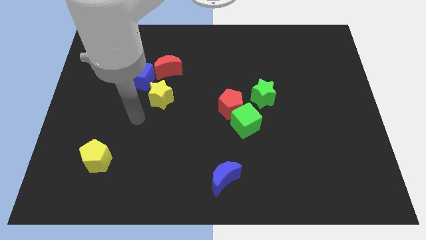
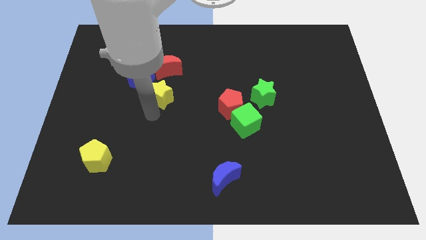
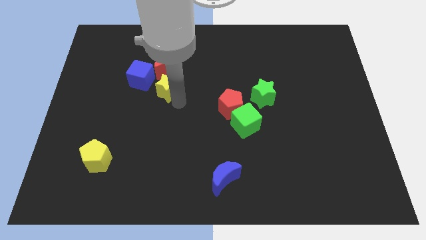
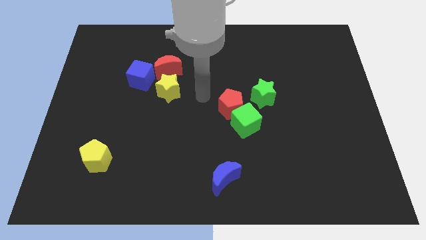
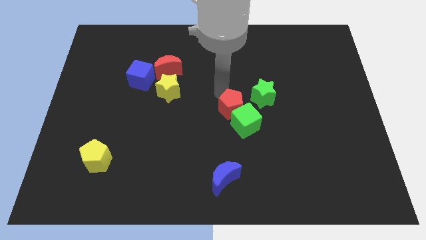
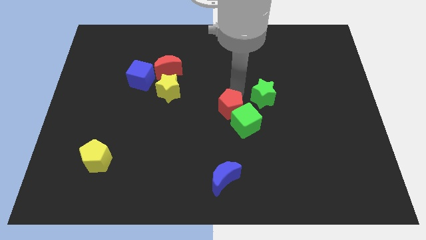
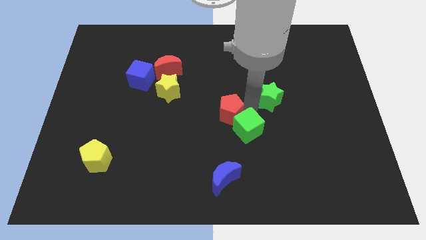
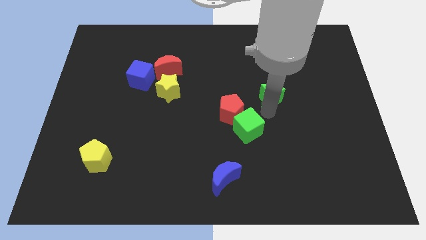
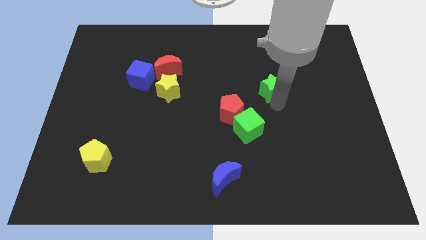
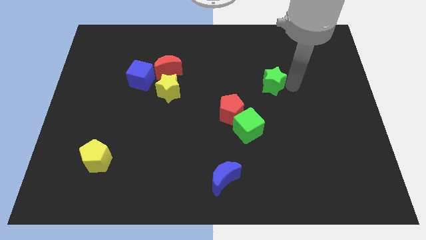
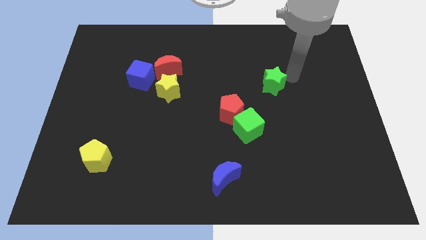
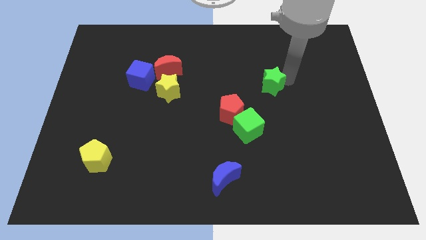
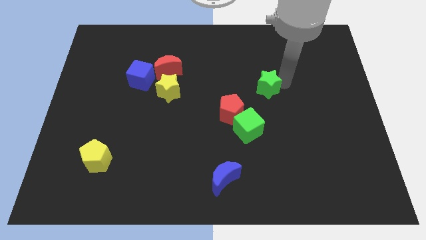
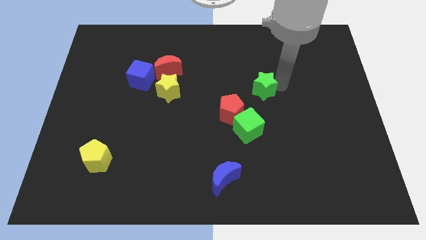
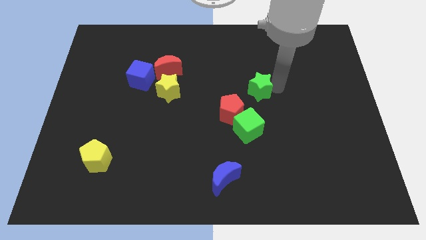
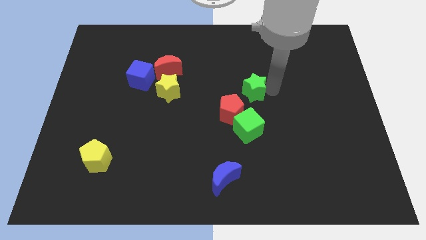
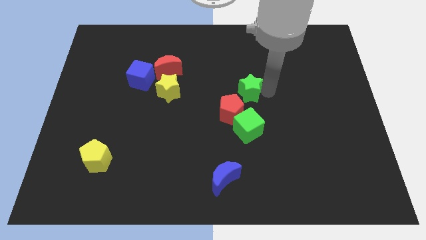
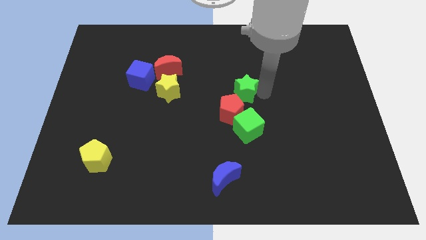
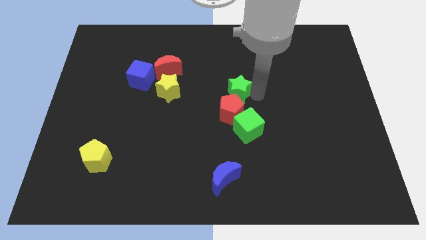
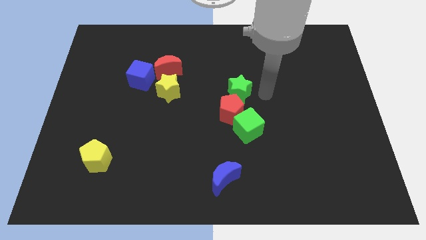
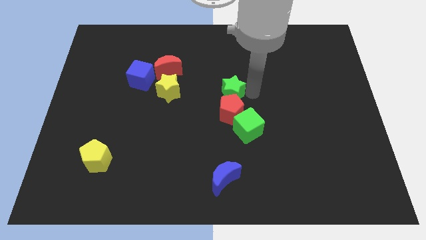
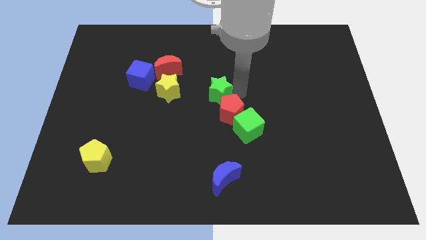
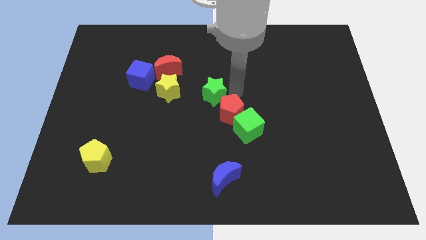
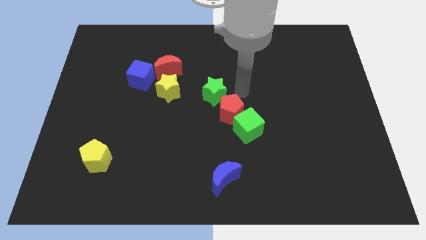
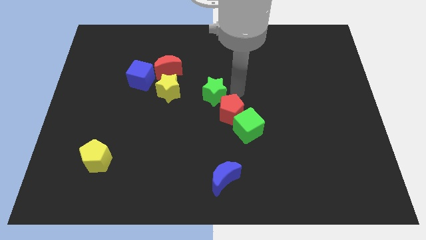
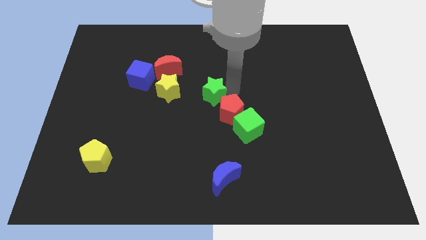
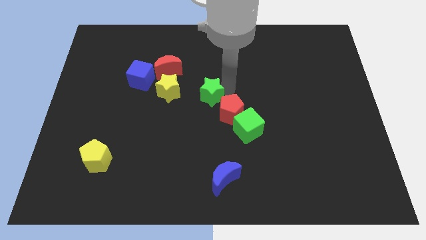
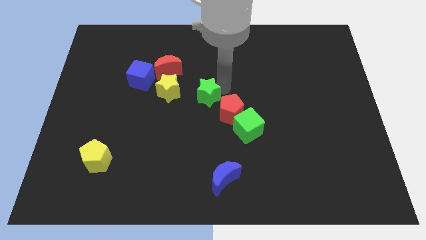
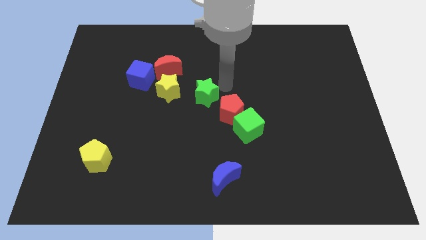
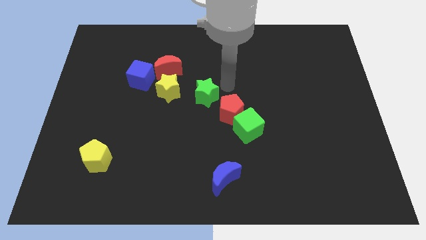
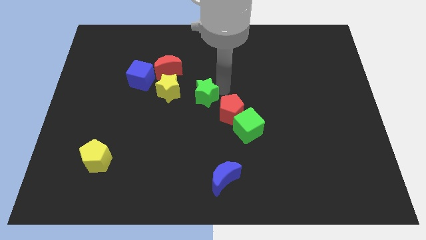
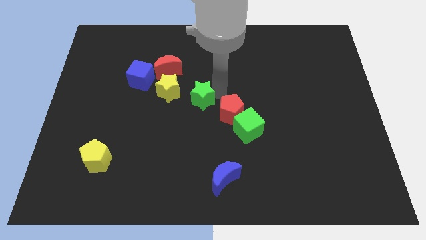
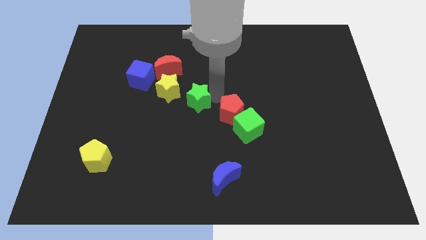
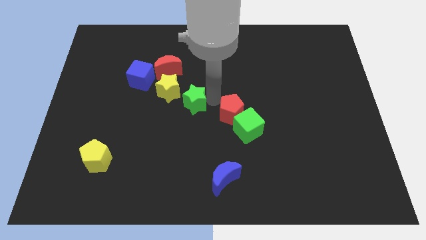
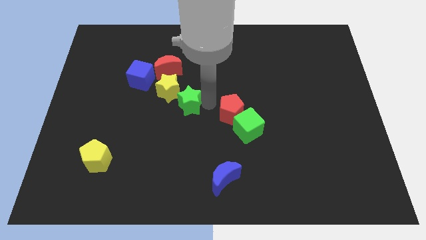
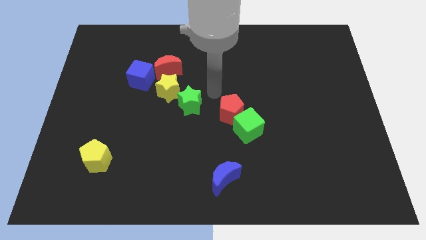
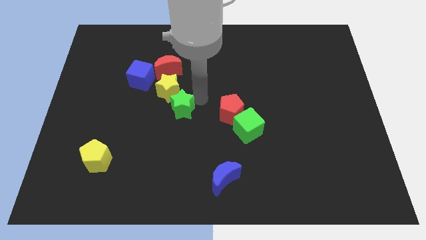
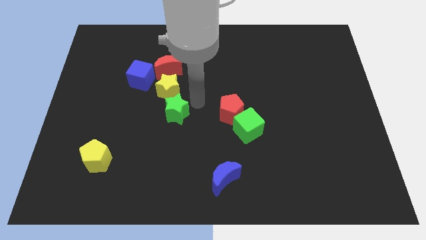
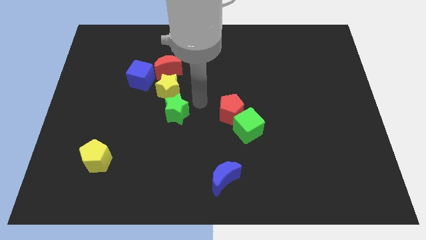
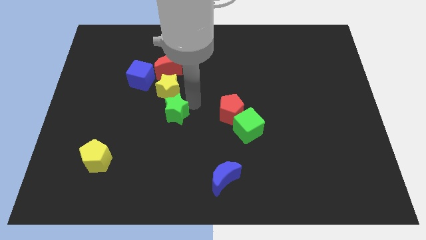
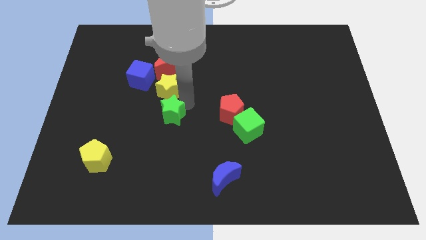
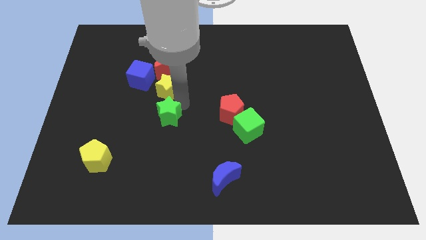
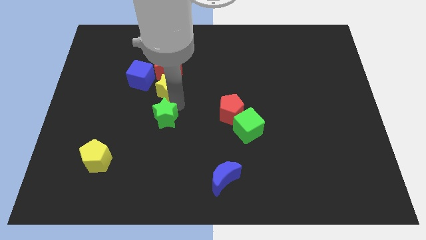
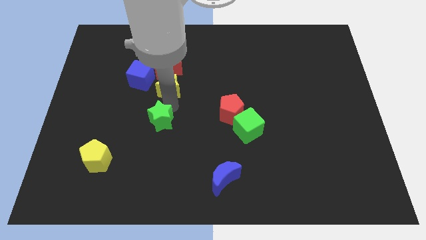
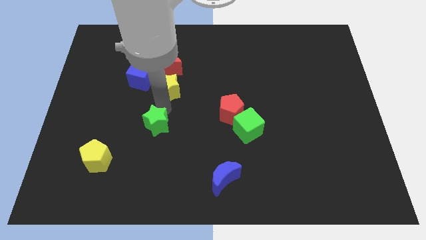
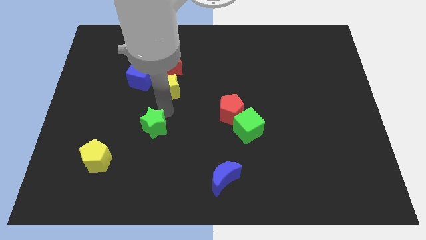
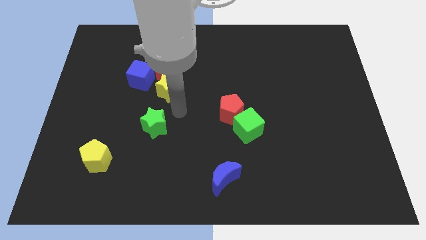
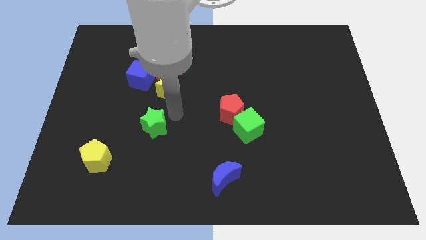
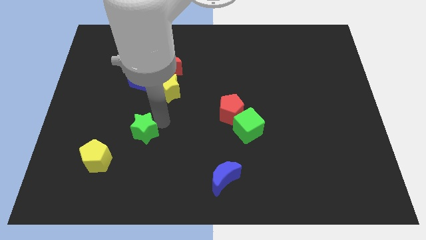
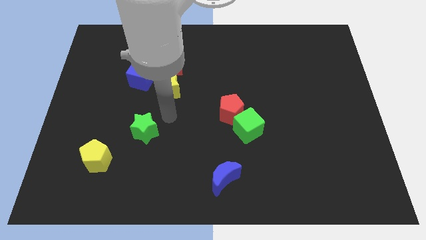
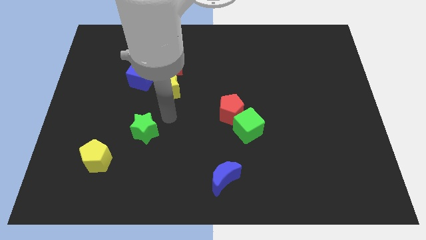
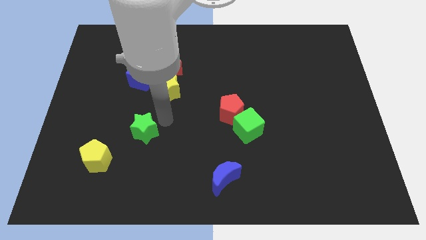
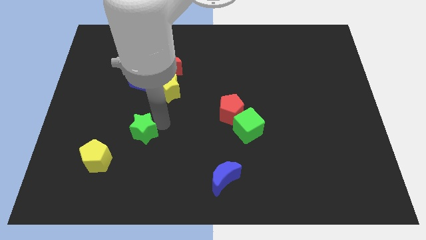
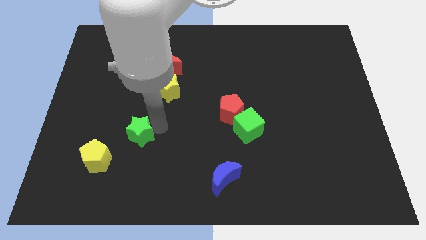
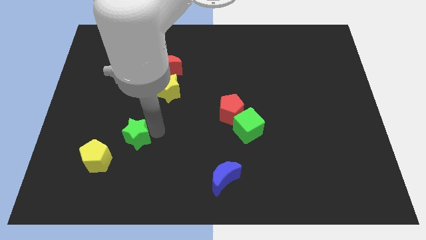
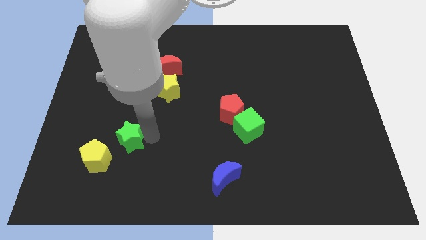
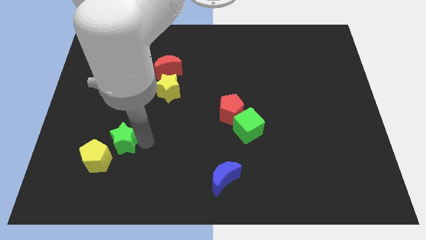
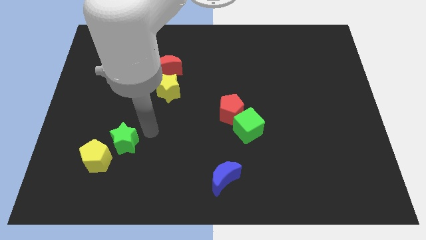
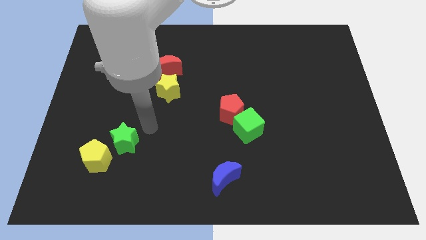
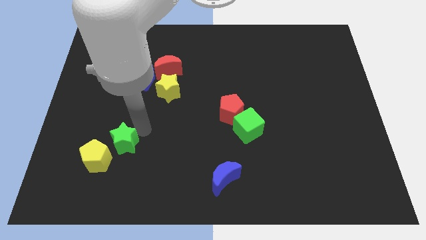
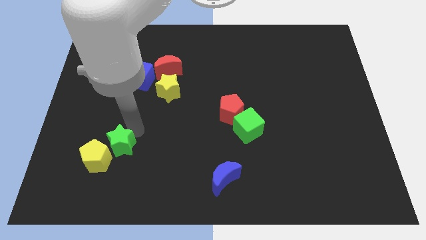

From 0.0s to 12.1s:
put the green star to the yellow pentagon

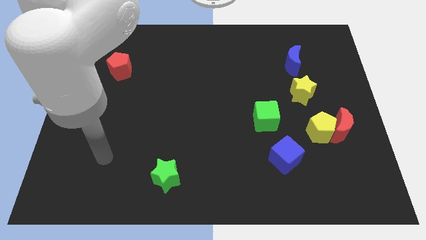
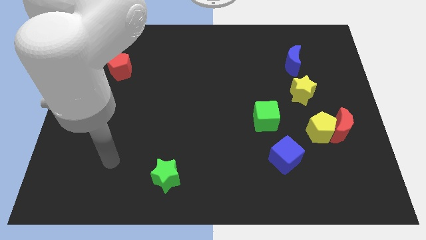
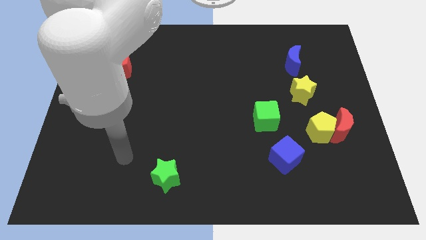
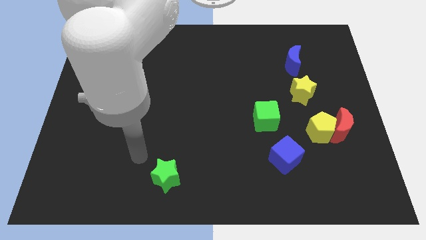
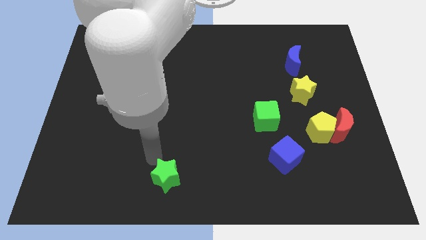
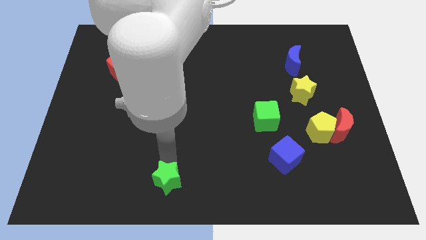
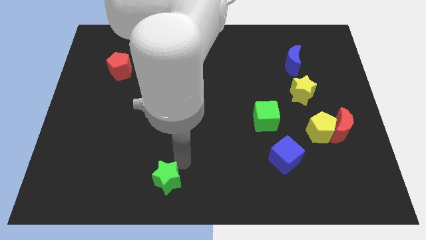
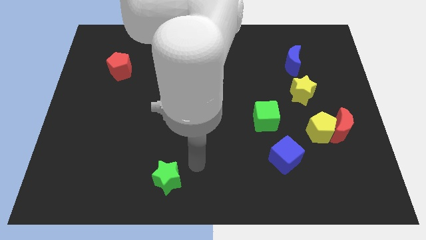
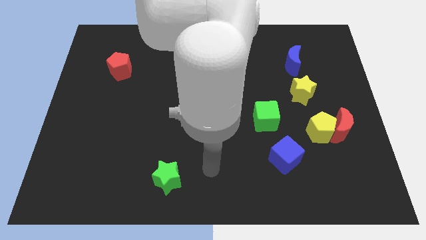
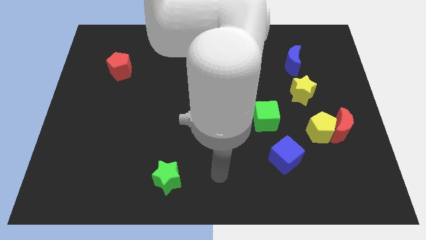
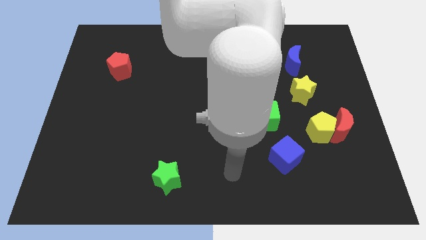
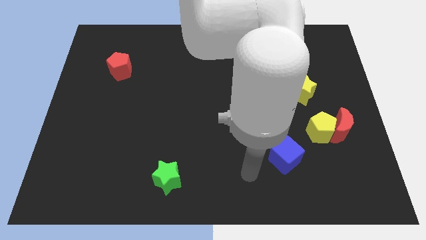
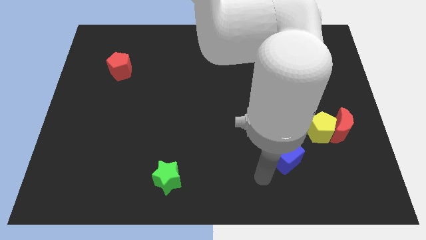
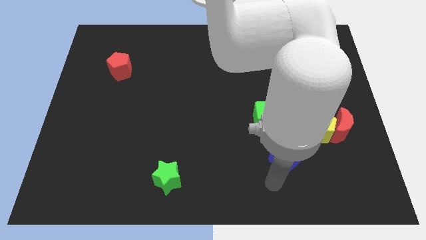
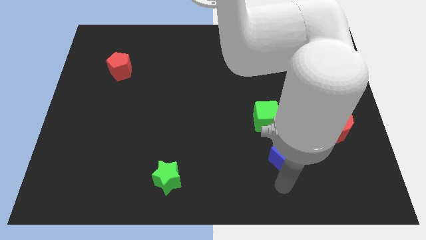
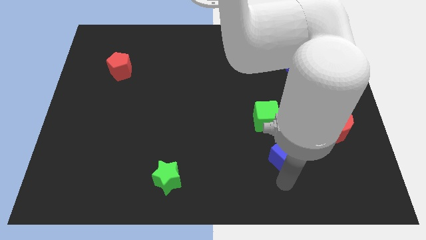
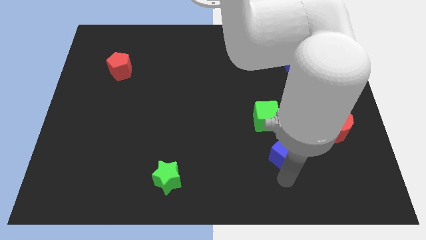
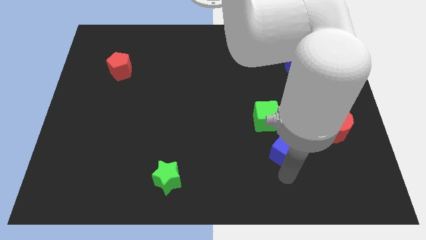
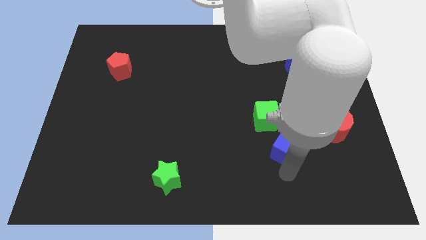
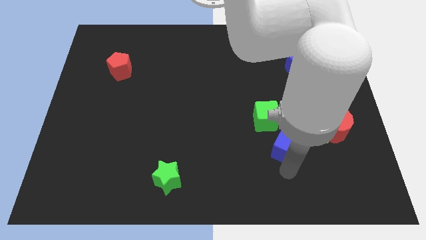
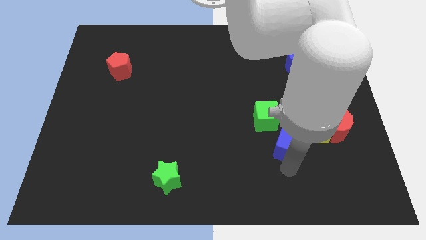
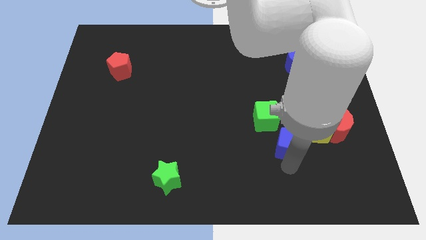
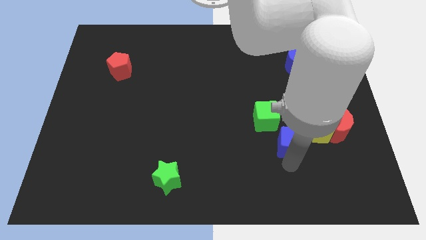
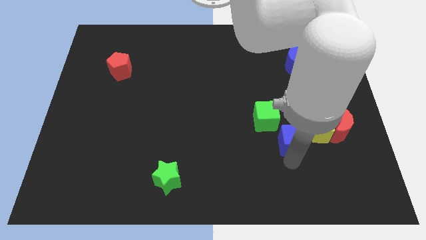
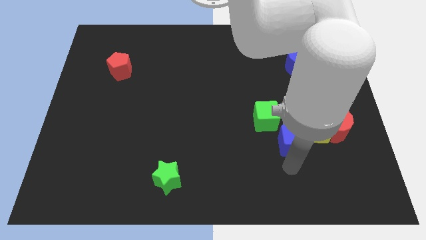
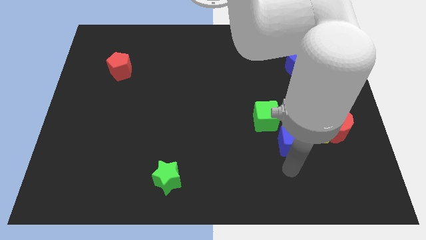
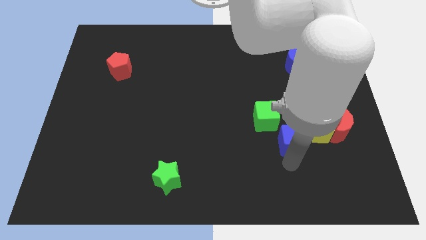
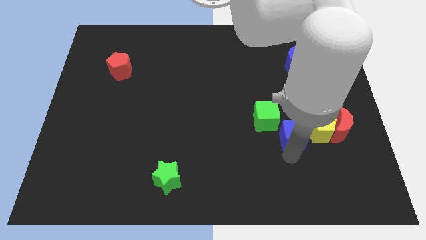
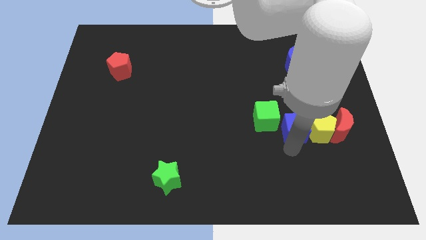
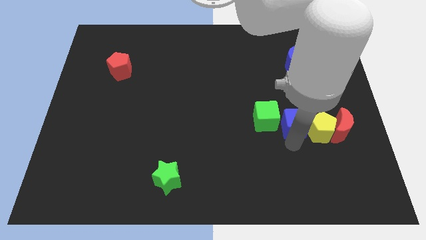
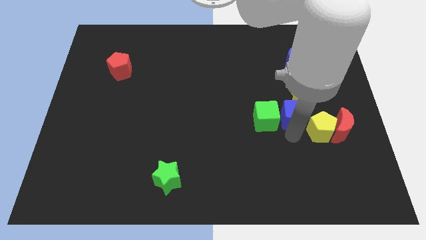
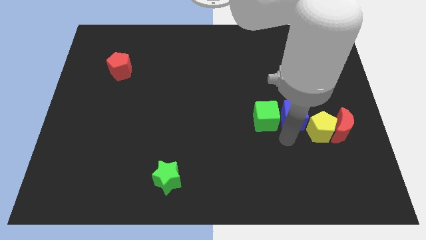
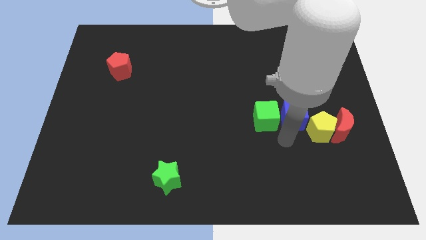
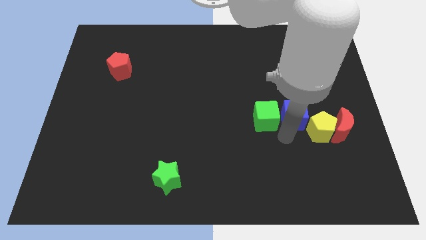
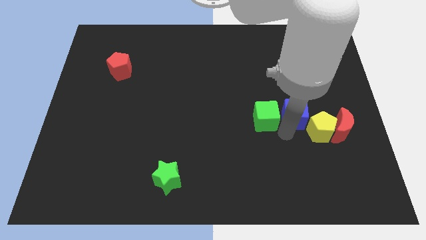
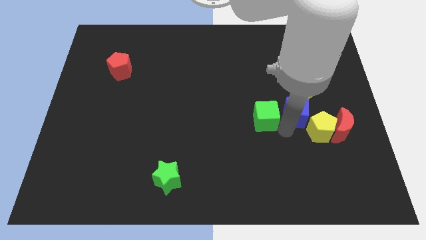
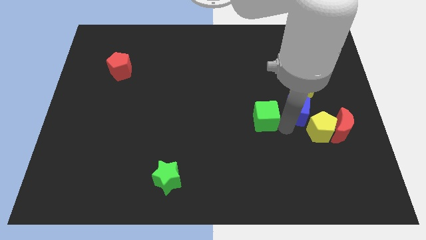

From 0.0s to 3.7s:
move the blue cube close to the yellow star
